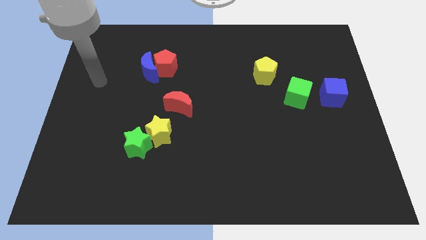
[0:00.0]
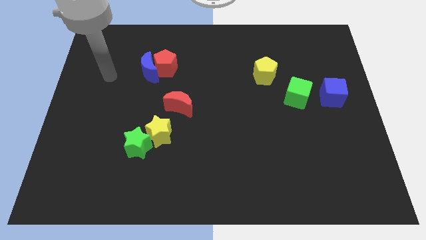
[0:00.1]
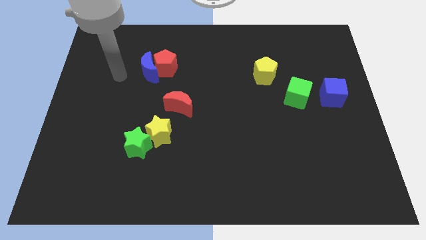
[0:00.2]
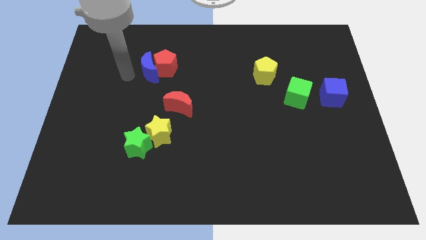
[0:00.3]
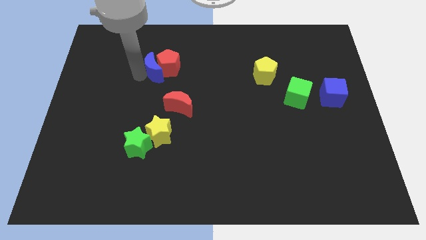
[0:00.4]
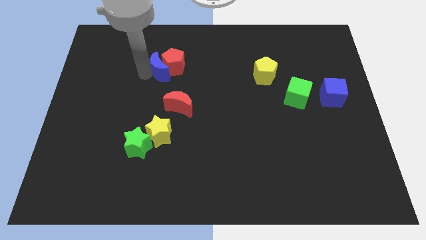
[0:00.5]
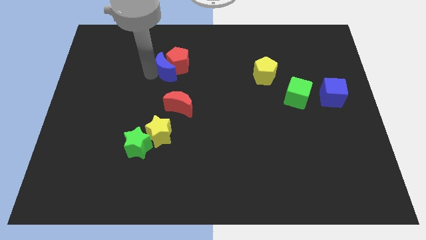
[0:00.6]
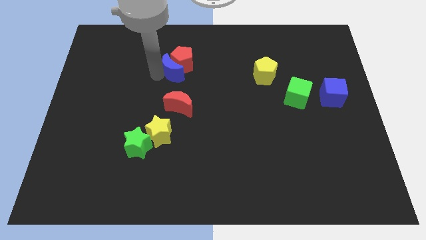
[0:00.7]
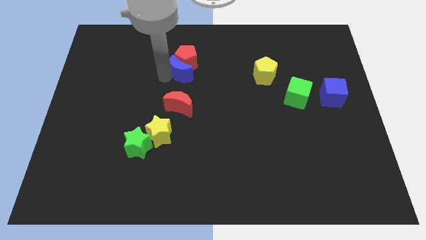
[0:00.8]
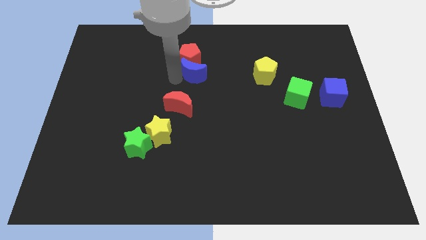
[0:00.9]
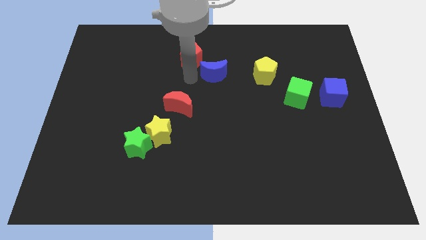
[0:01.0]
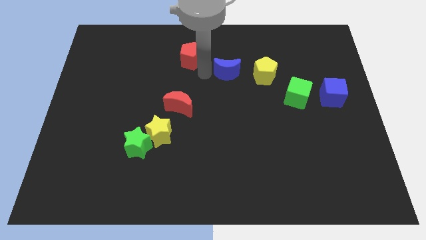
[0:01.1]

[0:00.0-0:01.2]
pull the red pentagon apart from the blue moon

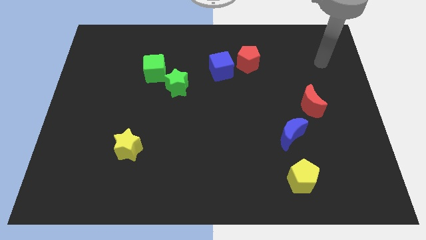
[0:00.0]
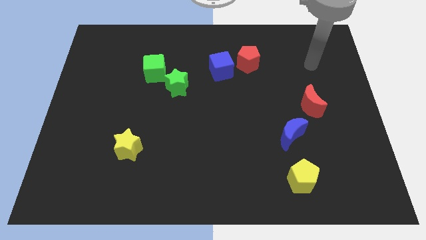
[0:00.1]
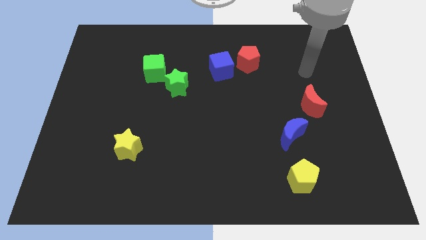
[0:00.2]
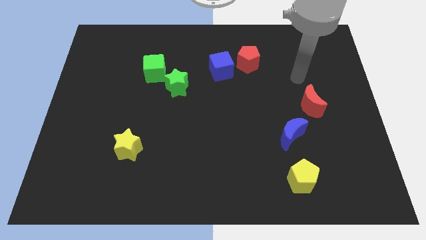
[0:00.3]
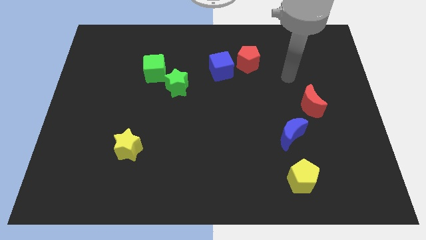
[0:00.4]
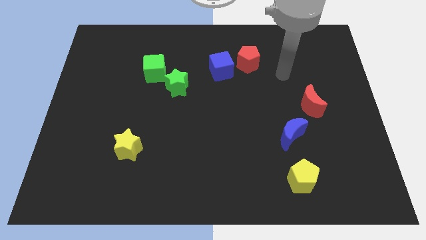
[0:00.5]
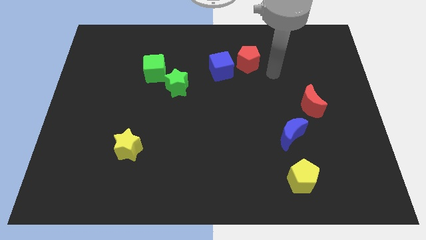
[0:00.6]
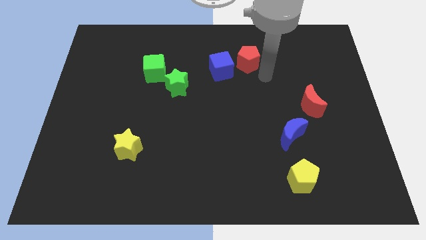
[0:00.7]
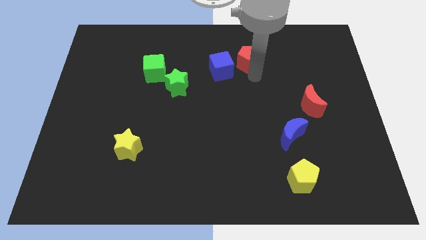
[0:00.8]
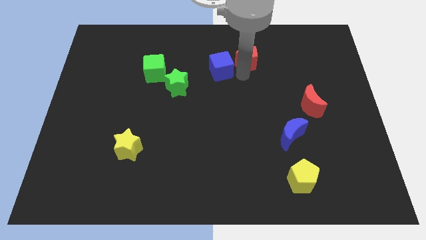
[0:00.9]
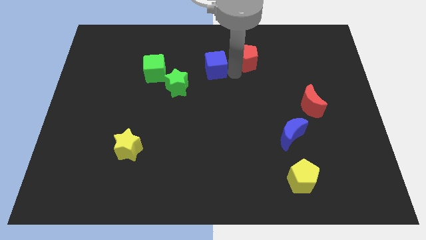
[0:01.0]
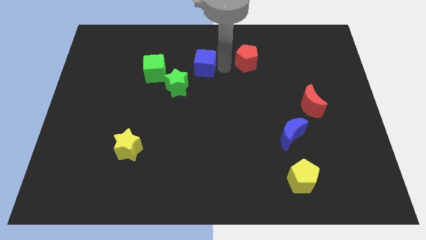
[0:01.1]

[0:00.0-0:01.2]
pull the red pentagon apart from the blue cube

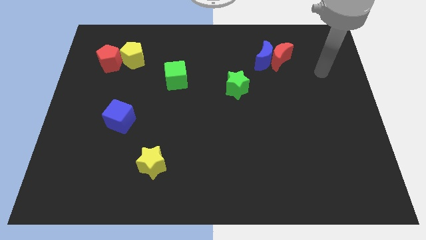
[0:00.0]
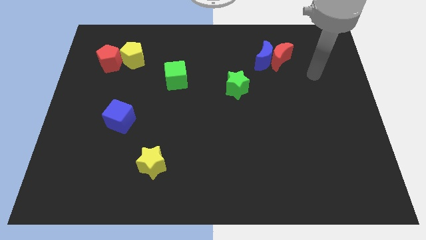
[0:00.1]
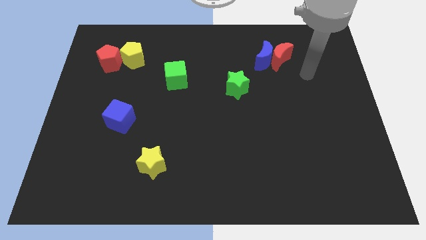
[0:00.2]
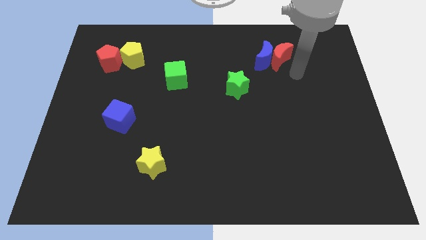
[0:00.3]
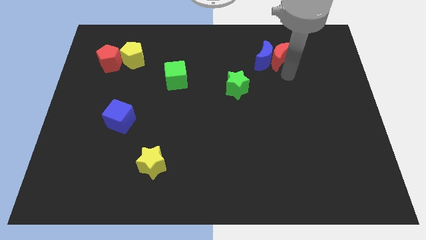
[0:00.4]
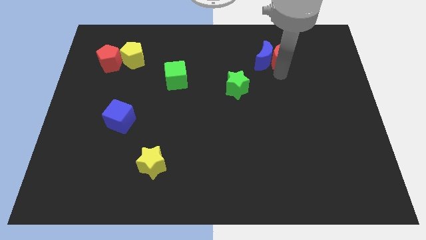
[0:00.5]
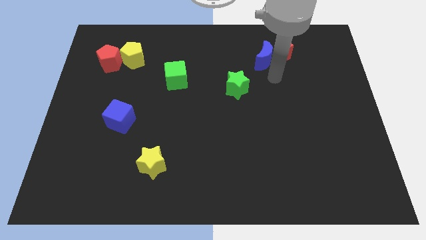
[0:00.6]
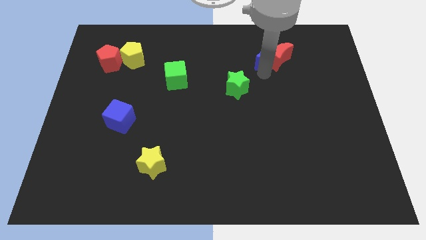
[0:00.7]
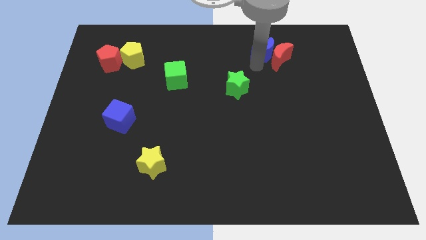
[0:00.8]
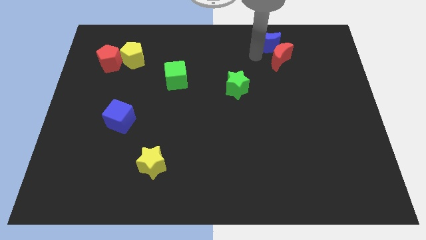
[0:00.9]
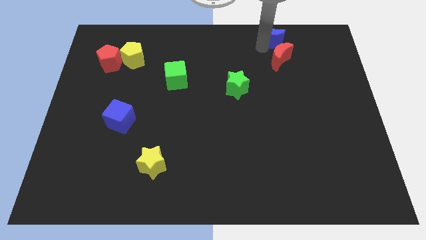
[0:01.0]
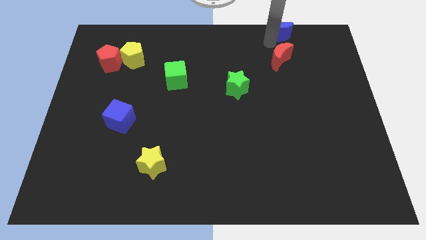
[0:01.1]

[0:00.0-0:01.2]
separate the red moon from the blue moon

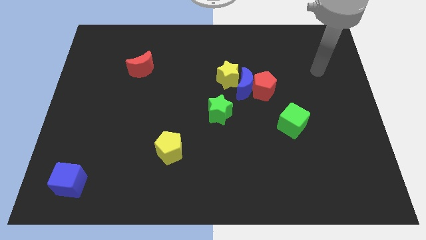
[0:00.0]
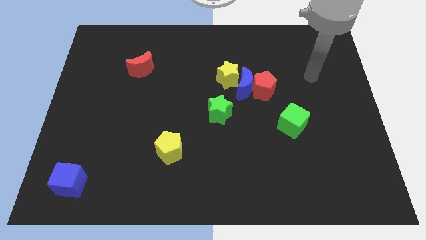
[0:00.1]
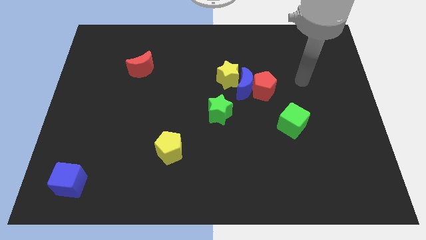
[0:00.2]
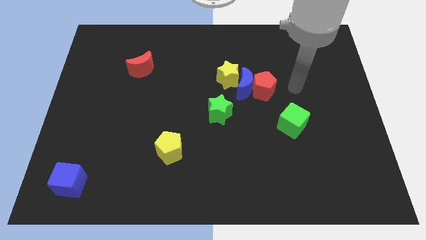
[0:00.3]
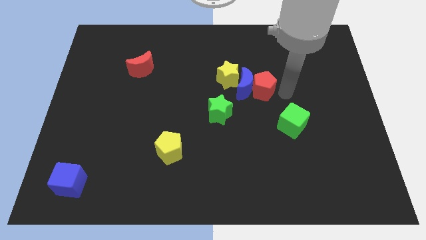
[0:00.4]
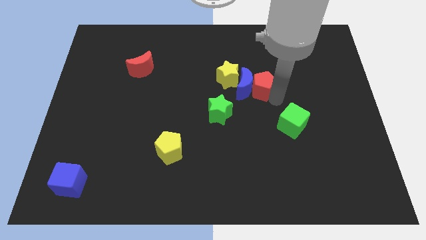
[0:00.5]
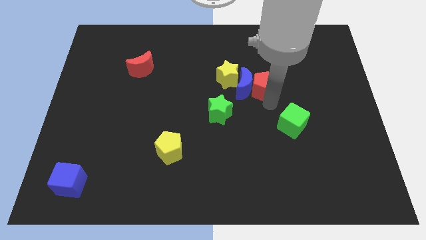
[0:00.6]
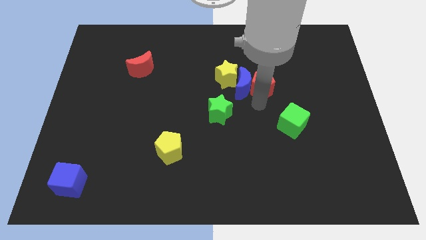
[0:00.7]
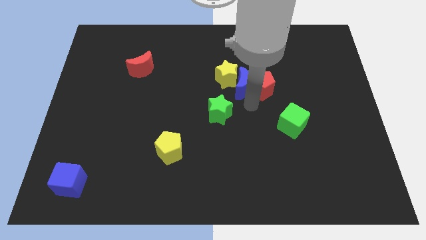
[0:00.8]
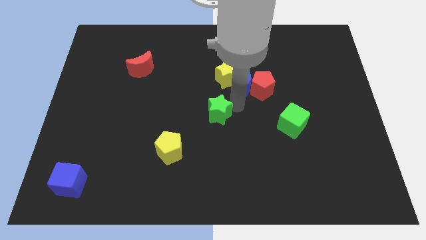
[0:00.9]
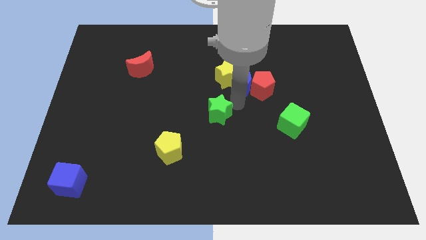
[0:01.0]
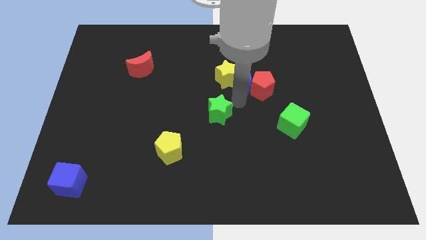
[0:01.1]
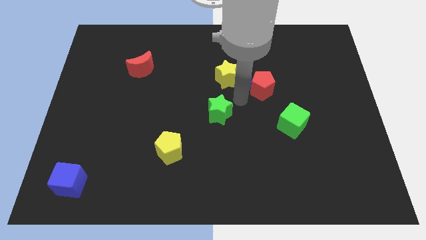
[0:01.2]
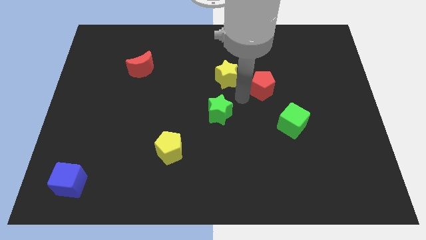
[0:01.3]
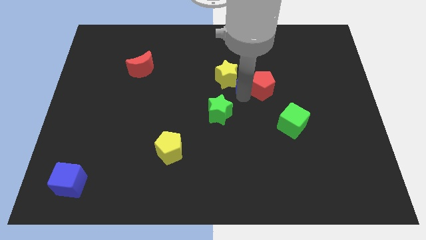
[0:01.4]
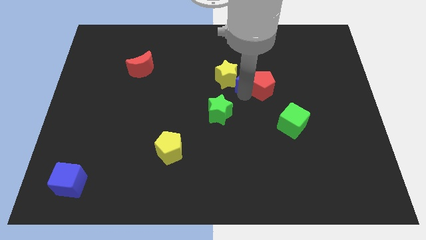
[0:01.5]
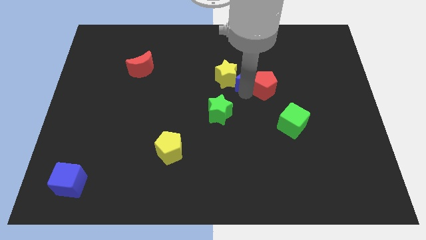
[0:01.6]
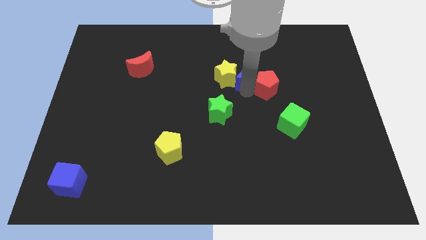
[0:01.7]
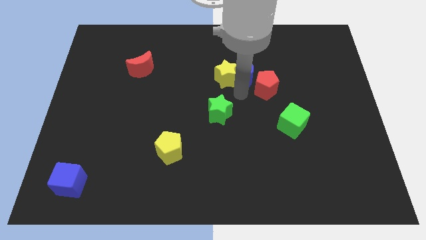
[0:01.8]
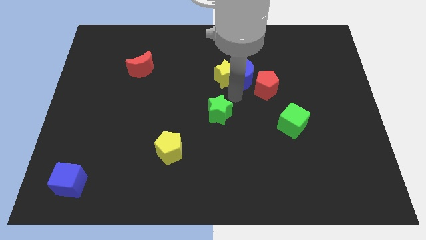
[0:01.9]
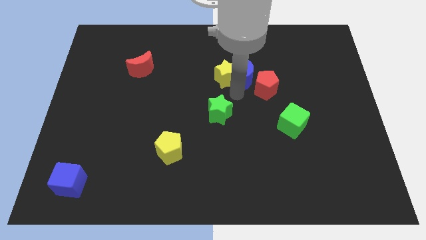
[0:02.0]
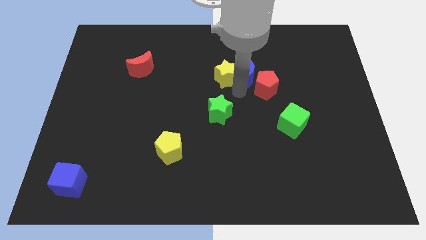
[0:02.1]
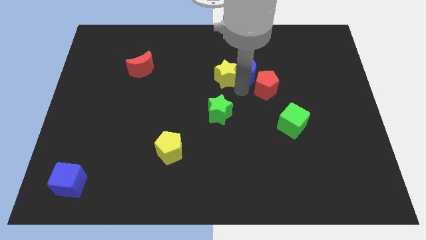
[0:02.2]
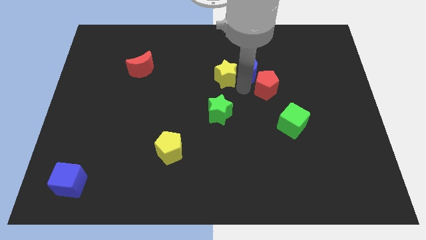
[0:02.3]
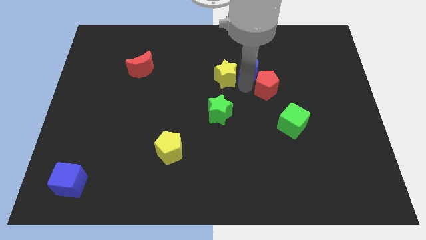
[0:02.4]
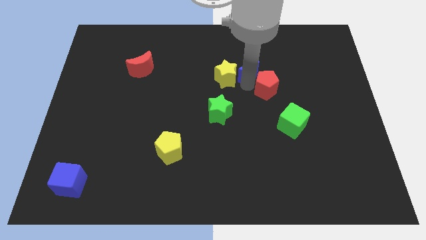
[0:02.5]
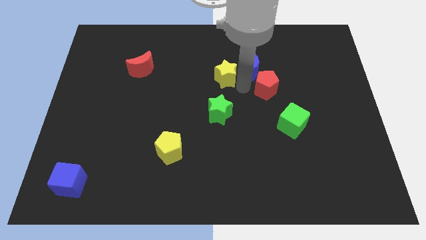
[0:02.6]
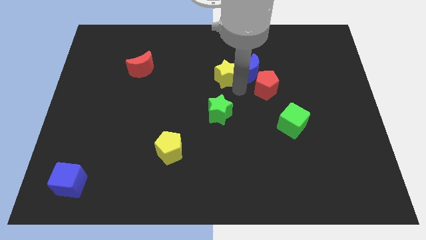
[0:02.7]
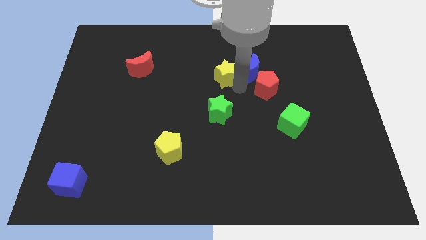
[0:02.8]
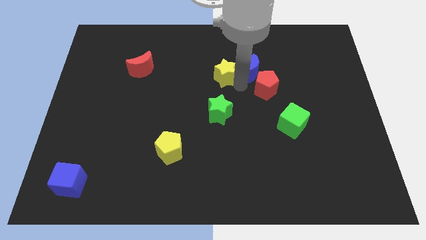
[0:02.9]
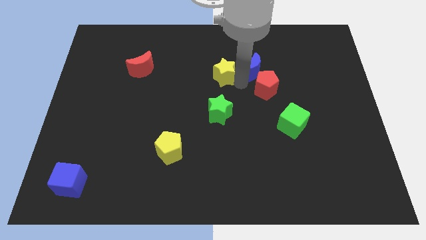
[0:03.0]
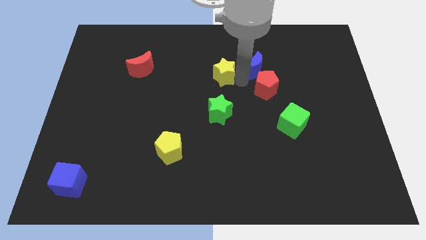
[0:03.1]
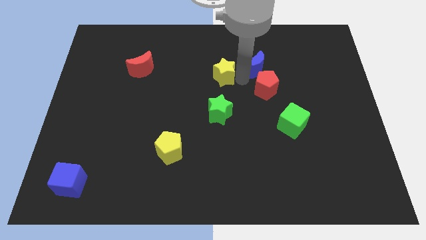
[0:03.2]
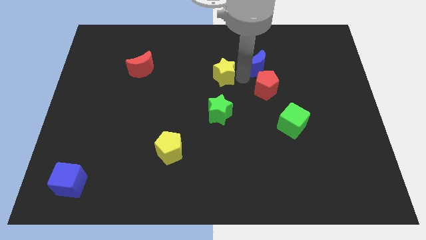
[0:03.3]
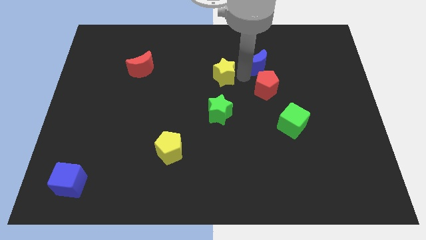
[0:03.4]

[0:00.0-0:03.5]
move the blue moon away from the group

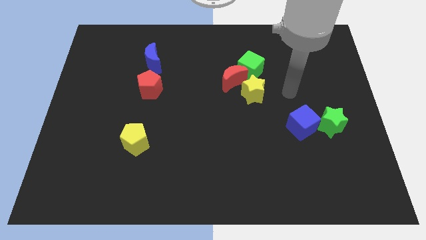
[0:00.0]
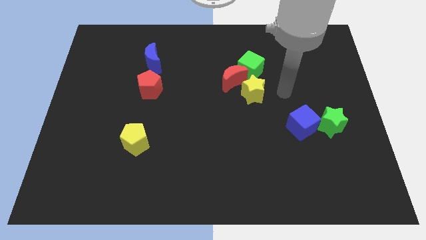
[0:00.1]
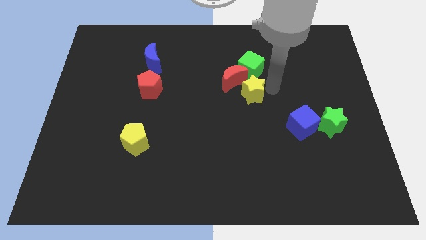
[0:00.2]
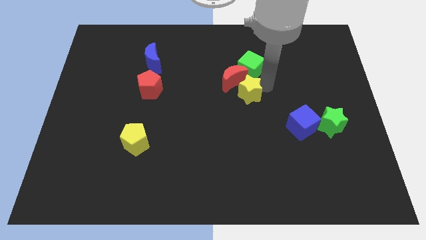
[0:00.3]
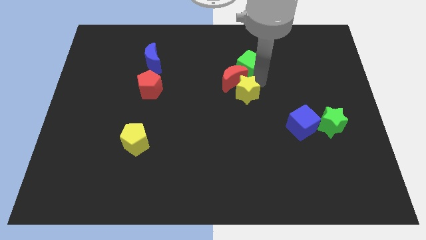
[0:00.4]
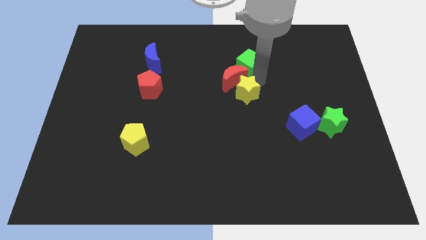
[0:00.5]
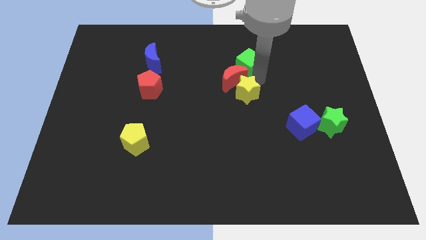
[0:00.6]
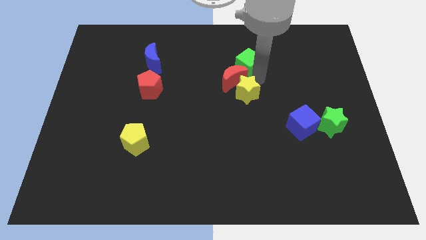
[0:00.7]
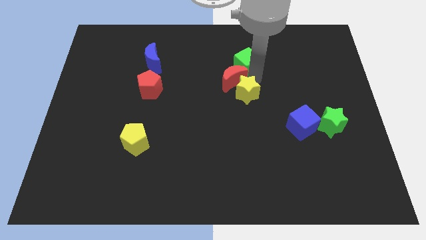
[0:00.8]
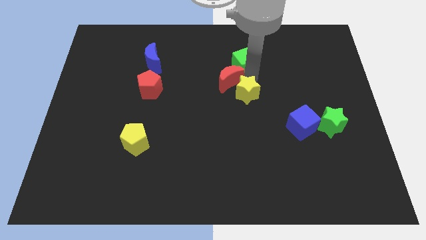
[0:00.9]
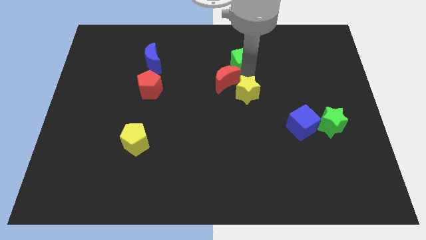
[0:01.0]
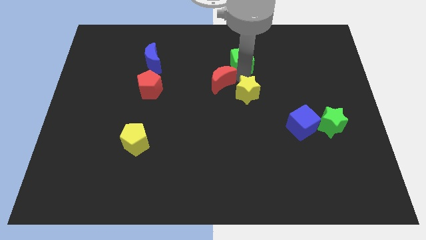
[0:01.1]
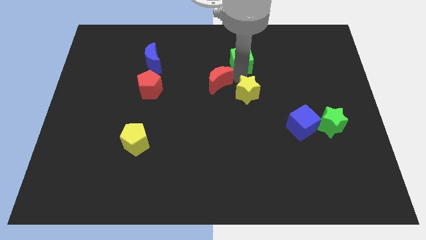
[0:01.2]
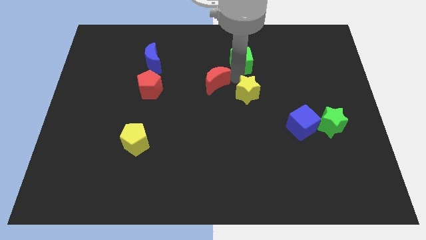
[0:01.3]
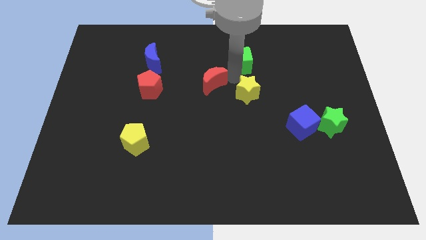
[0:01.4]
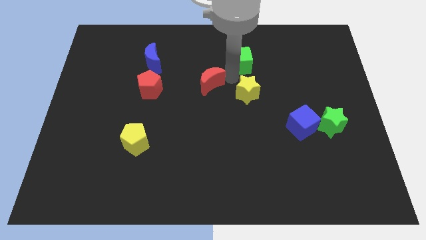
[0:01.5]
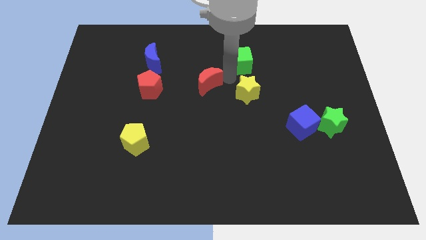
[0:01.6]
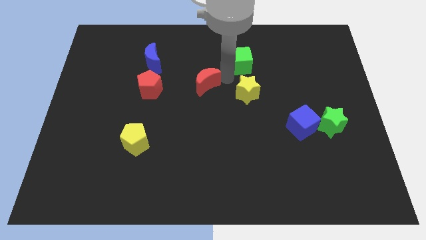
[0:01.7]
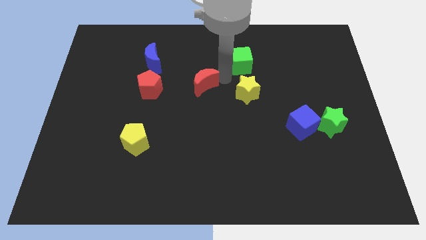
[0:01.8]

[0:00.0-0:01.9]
move the red moon away from the green cube and yellow star

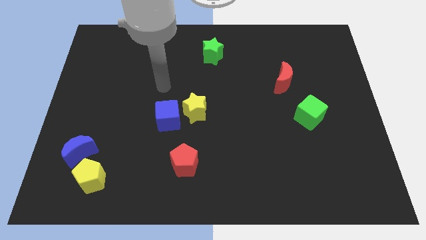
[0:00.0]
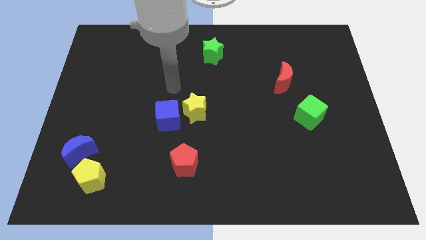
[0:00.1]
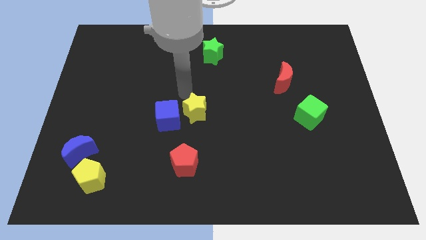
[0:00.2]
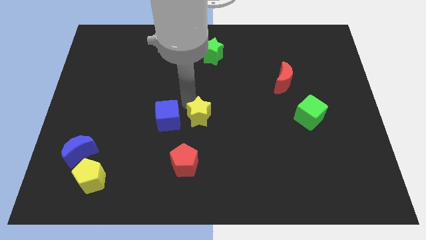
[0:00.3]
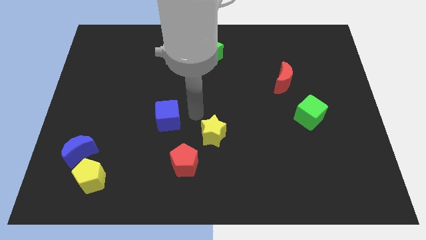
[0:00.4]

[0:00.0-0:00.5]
separate the blue cube from the yellow star
